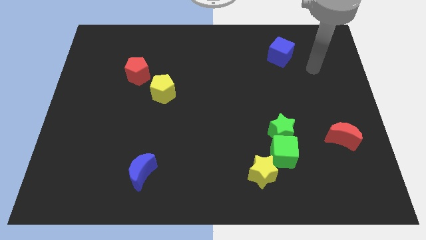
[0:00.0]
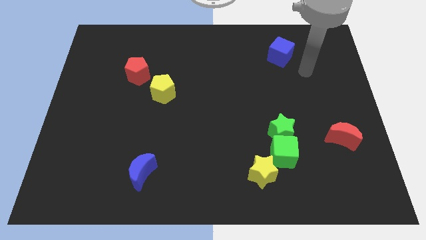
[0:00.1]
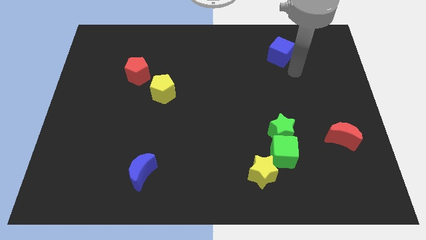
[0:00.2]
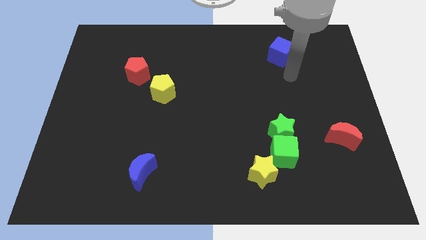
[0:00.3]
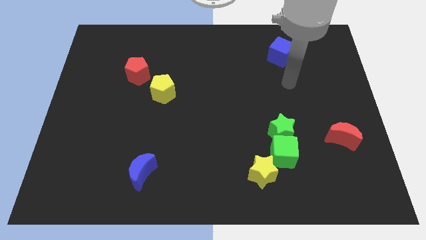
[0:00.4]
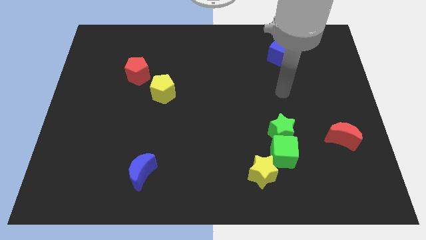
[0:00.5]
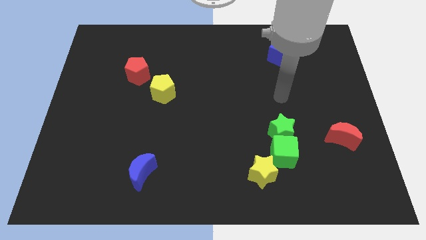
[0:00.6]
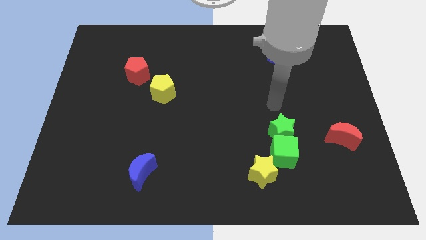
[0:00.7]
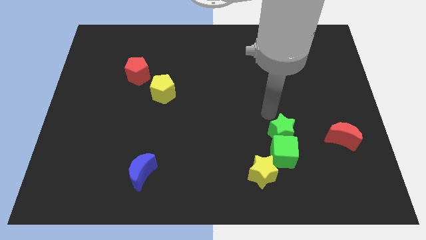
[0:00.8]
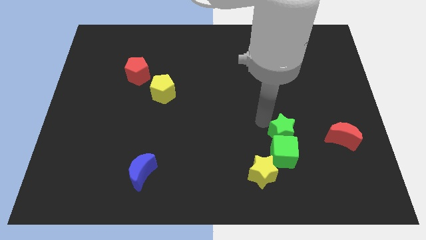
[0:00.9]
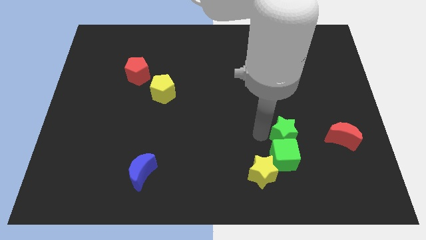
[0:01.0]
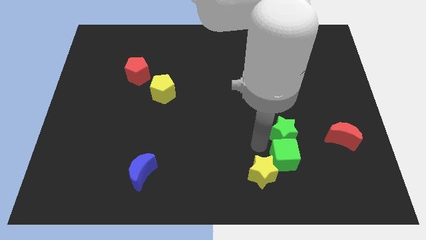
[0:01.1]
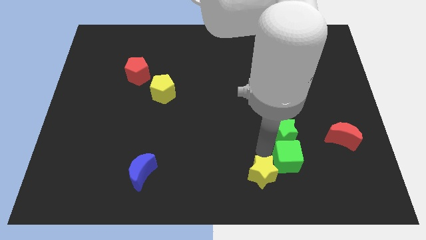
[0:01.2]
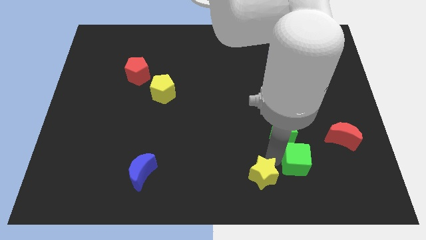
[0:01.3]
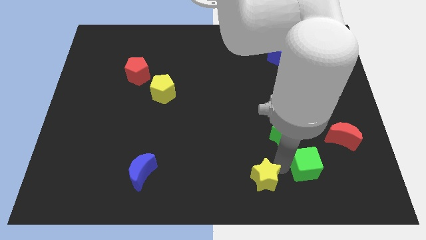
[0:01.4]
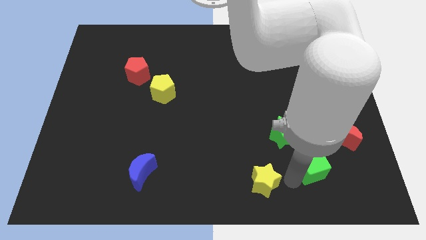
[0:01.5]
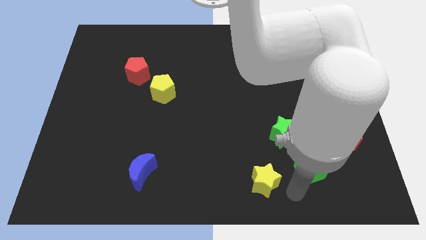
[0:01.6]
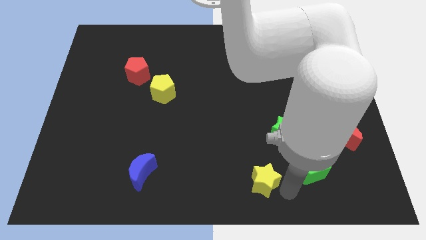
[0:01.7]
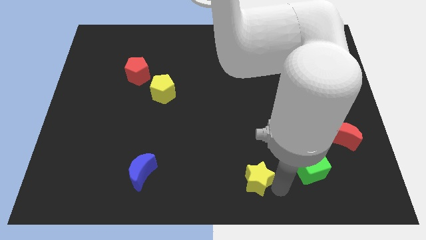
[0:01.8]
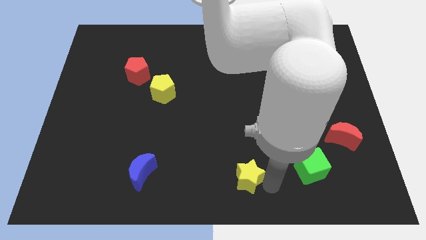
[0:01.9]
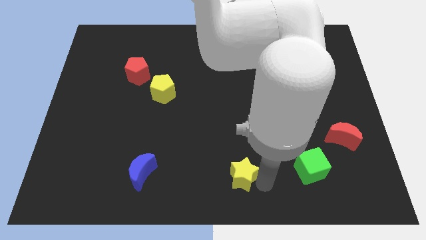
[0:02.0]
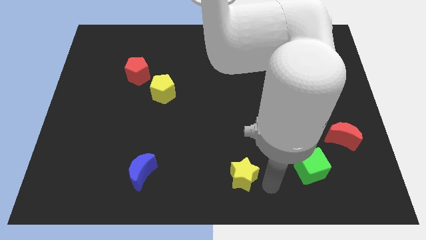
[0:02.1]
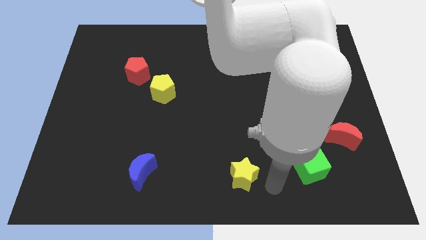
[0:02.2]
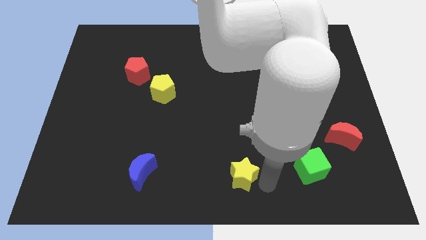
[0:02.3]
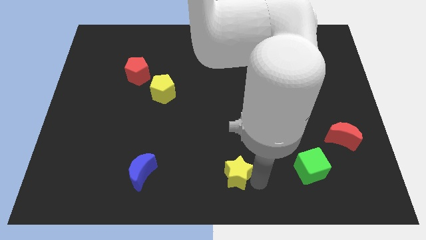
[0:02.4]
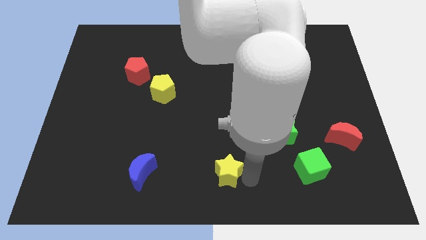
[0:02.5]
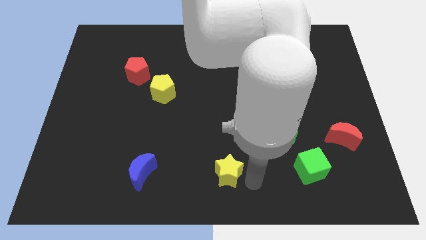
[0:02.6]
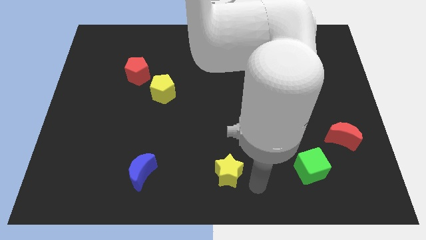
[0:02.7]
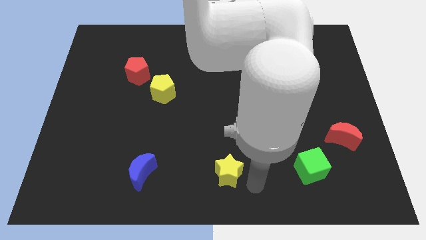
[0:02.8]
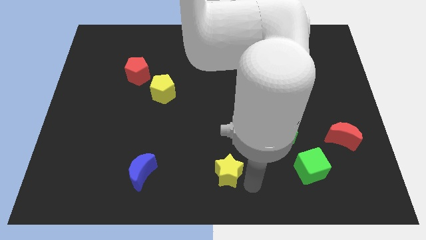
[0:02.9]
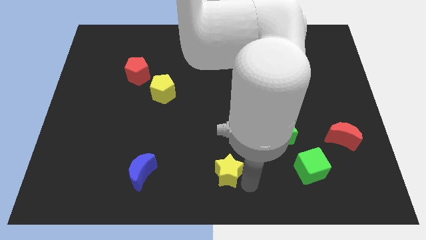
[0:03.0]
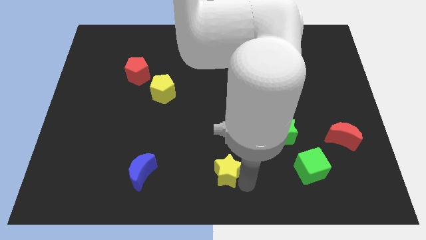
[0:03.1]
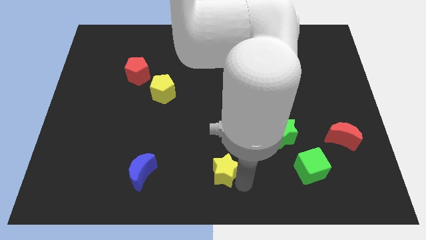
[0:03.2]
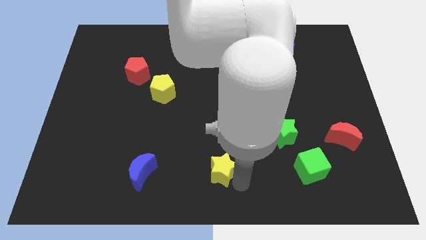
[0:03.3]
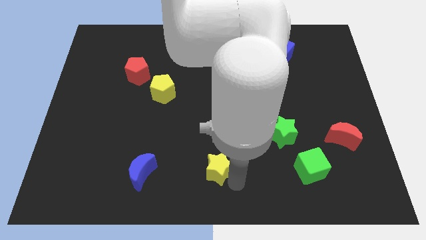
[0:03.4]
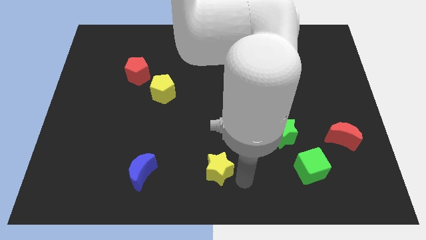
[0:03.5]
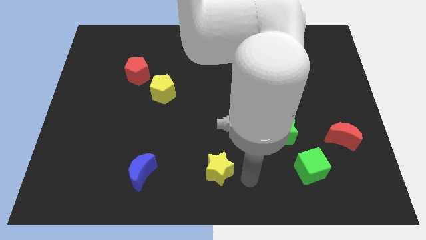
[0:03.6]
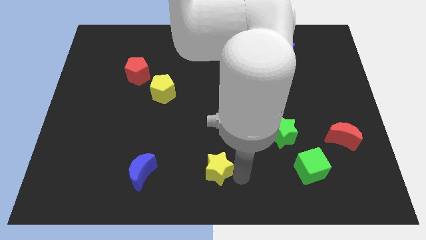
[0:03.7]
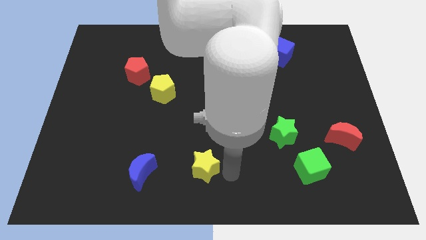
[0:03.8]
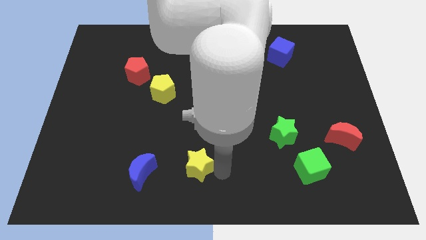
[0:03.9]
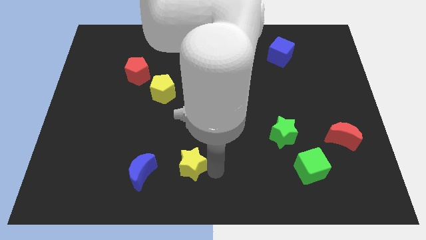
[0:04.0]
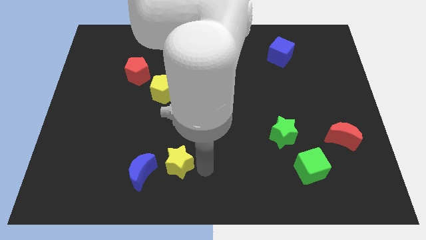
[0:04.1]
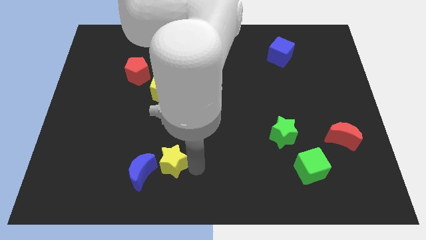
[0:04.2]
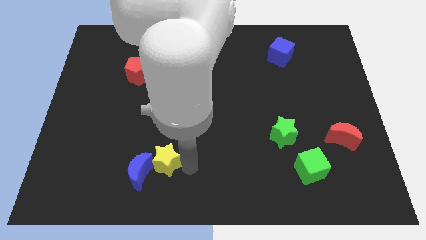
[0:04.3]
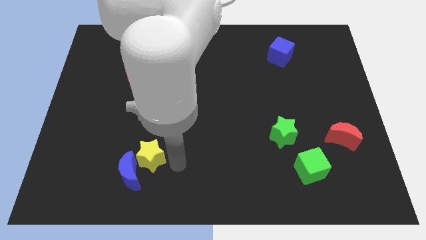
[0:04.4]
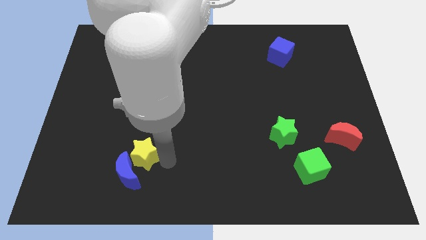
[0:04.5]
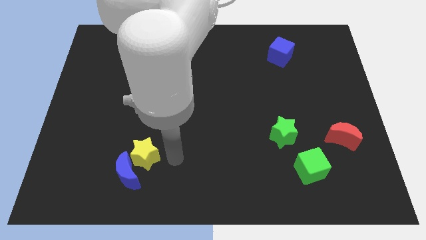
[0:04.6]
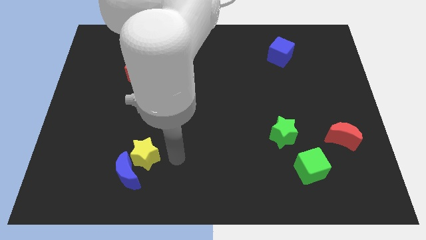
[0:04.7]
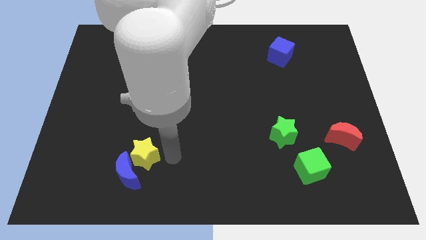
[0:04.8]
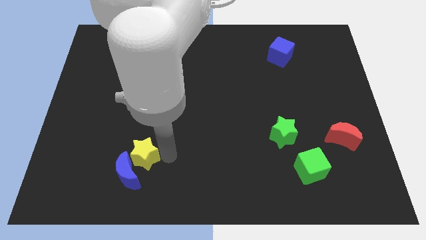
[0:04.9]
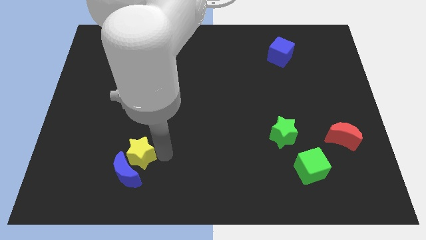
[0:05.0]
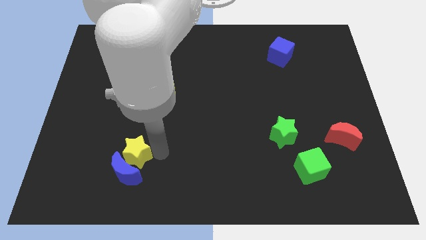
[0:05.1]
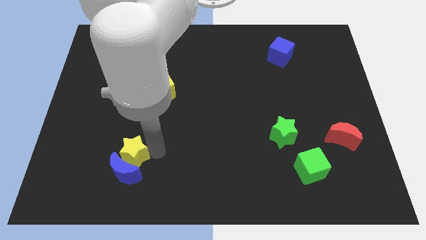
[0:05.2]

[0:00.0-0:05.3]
put the yellow star to the top left of the blue moon

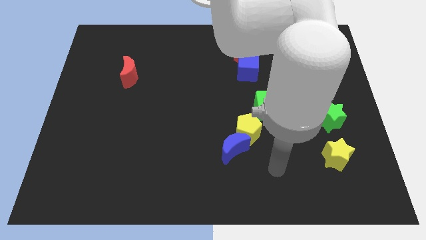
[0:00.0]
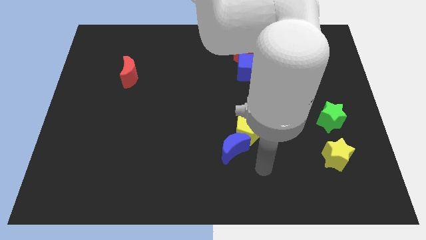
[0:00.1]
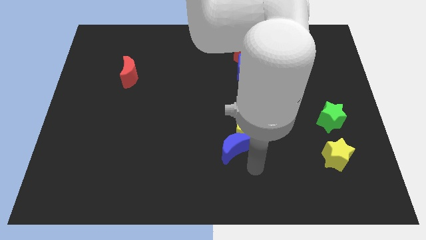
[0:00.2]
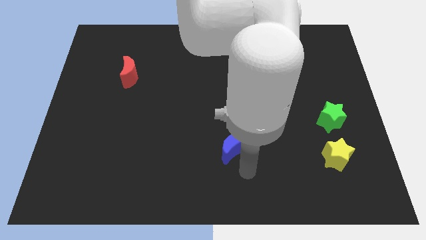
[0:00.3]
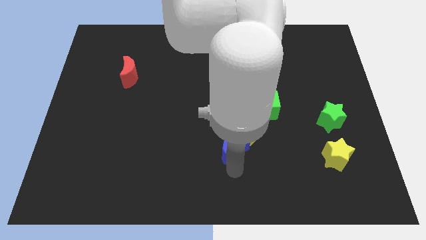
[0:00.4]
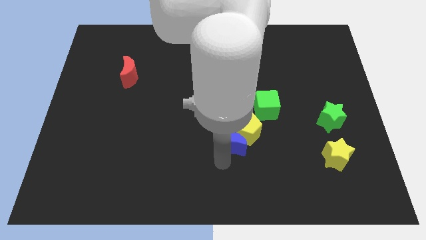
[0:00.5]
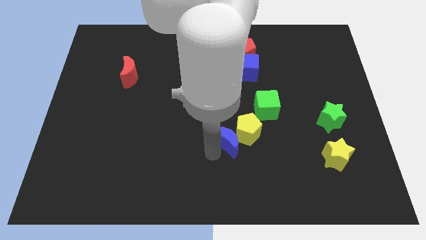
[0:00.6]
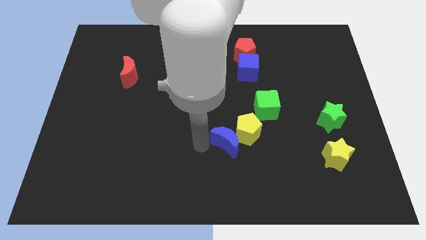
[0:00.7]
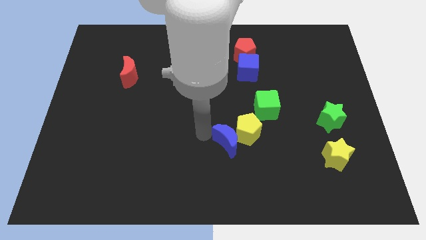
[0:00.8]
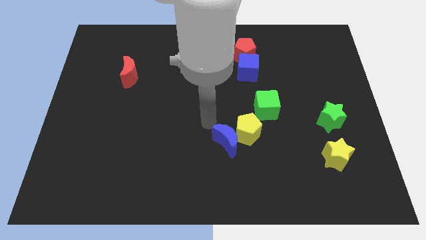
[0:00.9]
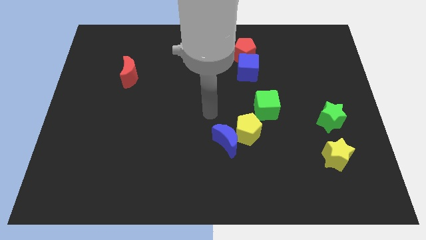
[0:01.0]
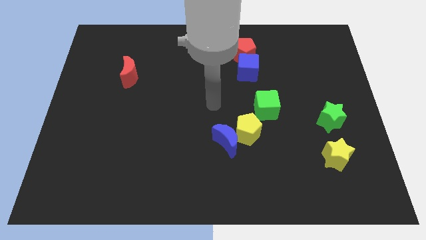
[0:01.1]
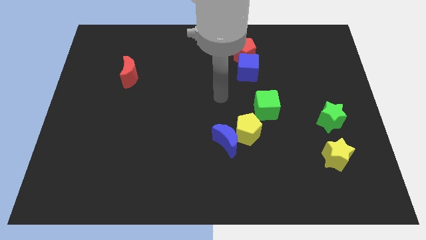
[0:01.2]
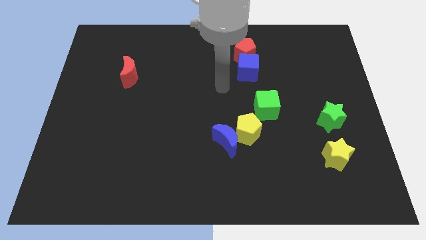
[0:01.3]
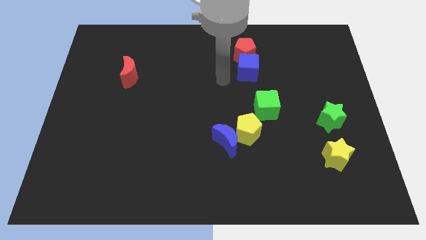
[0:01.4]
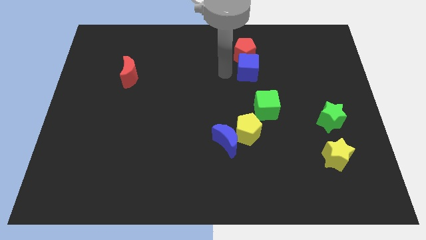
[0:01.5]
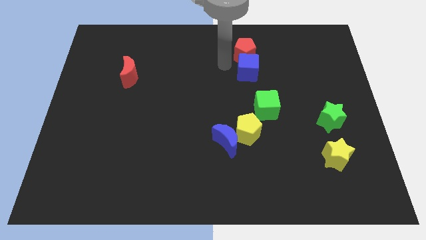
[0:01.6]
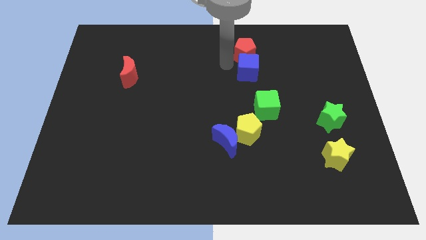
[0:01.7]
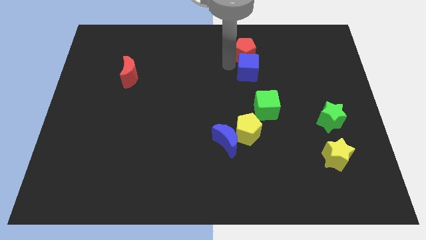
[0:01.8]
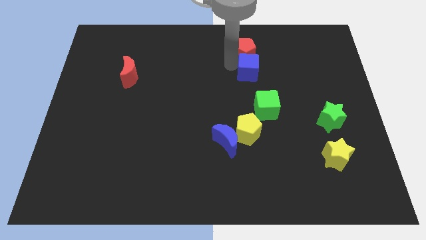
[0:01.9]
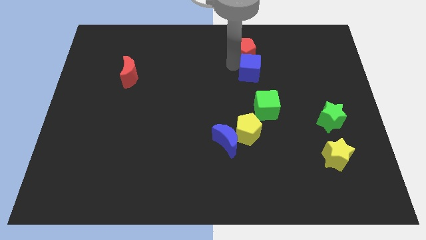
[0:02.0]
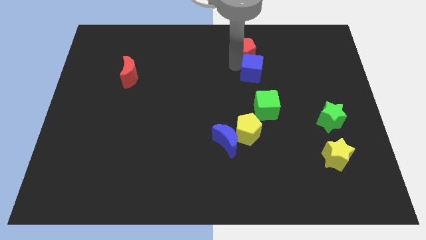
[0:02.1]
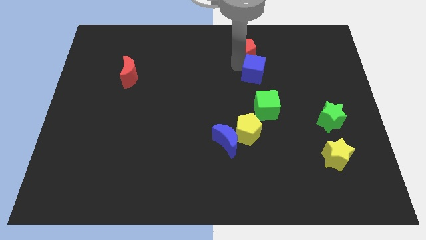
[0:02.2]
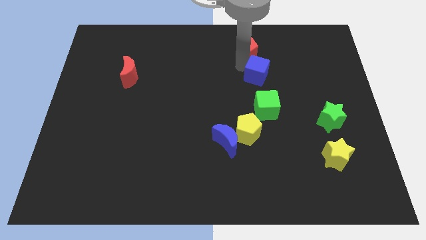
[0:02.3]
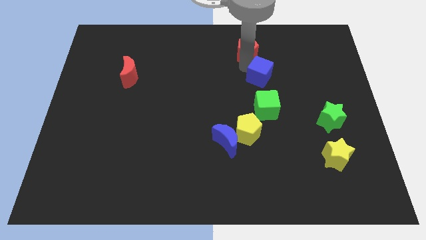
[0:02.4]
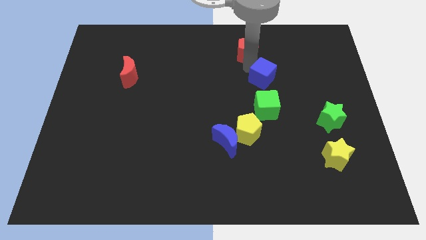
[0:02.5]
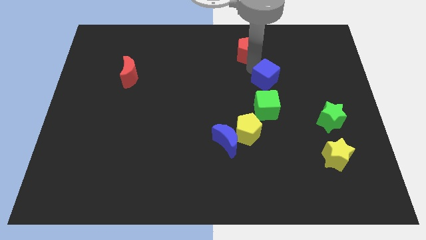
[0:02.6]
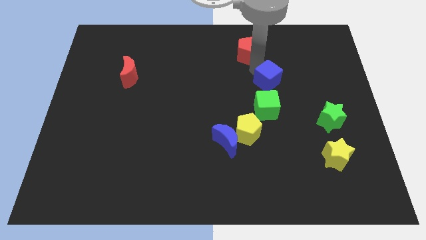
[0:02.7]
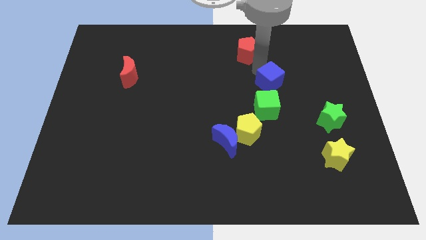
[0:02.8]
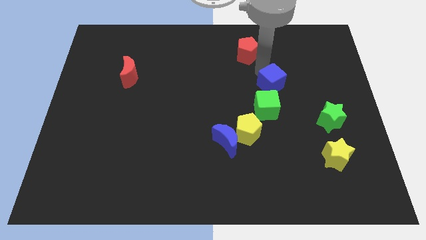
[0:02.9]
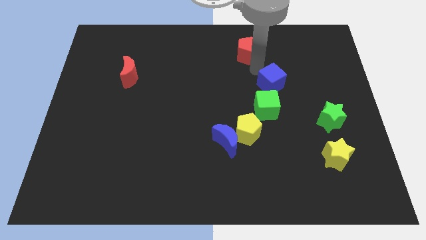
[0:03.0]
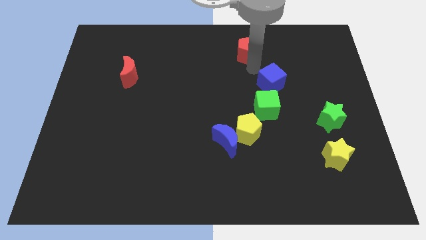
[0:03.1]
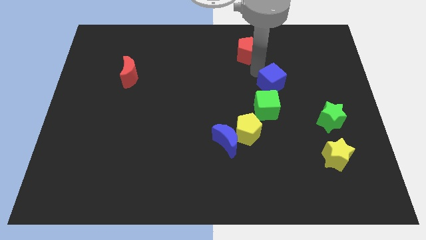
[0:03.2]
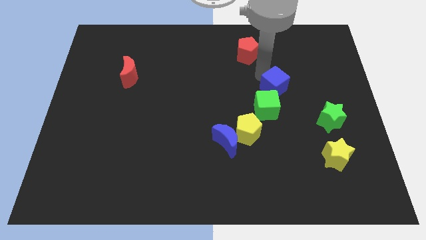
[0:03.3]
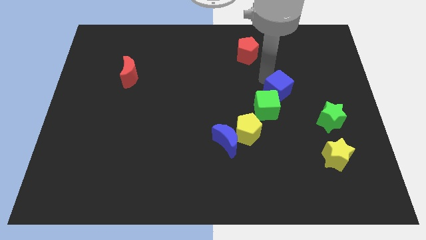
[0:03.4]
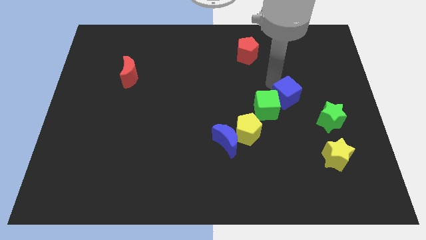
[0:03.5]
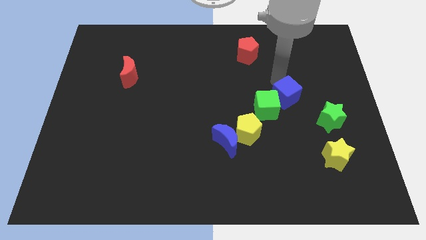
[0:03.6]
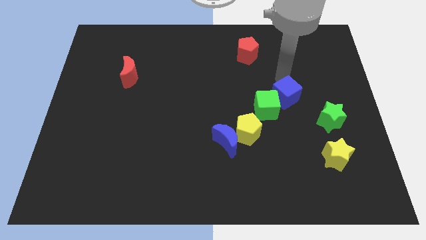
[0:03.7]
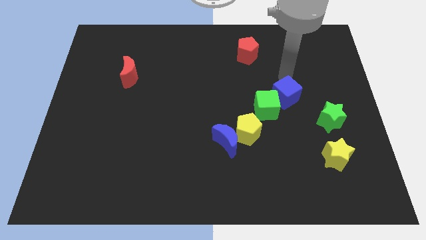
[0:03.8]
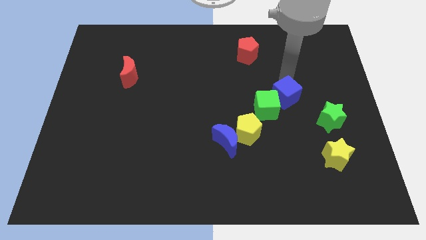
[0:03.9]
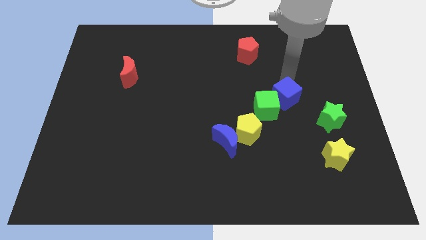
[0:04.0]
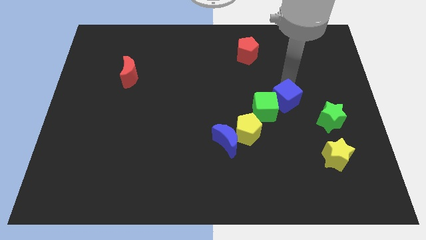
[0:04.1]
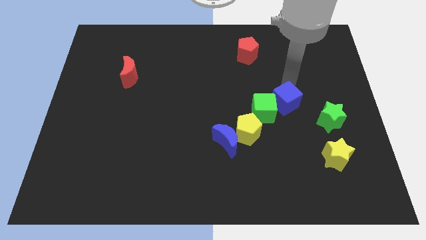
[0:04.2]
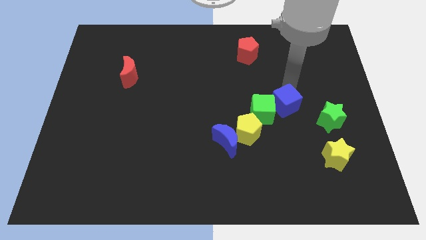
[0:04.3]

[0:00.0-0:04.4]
slide the blue cube to the left side of the green star
